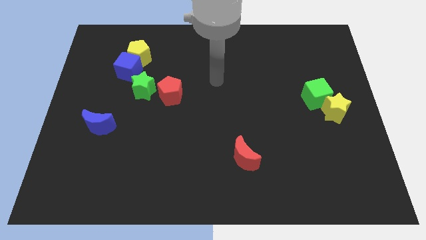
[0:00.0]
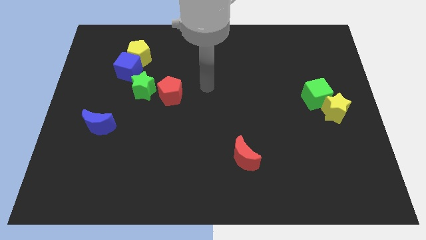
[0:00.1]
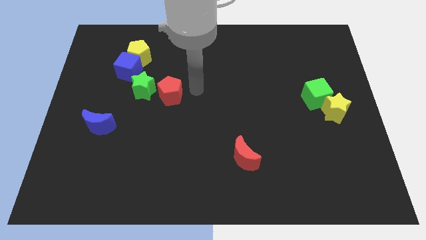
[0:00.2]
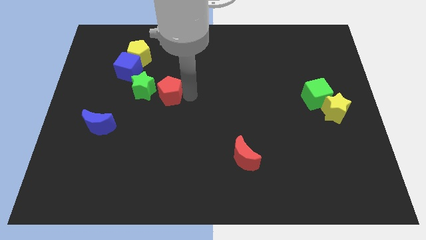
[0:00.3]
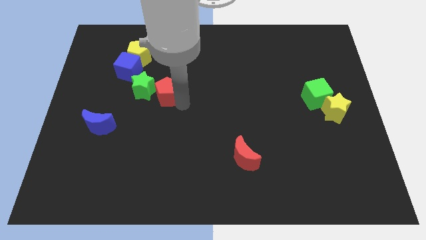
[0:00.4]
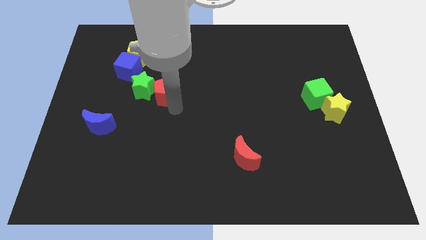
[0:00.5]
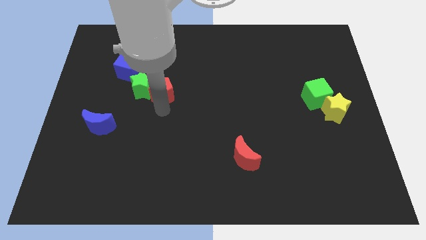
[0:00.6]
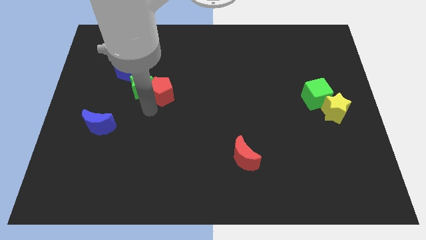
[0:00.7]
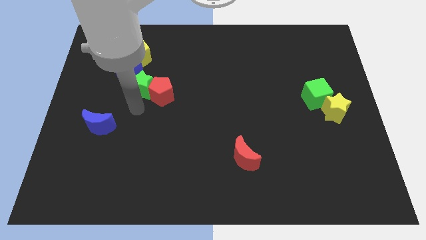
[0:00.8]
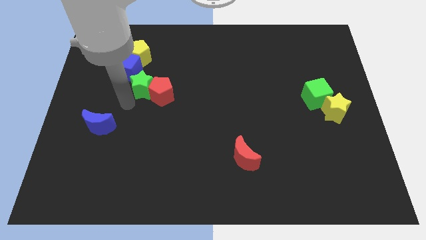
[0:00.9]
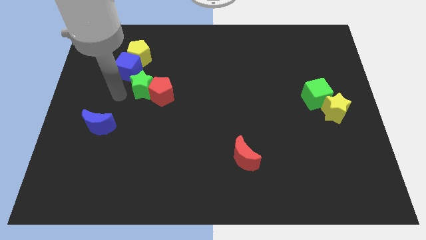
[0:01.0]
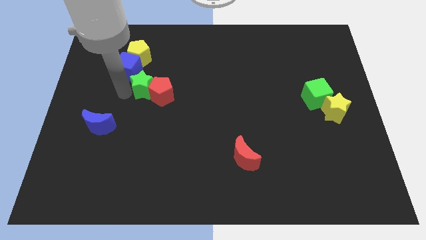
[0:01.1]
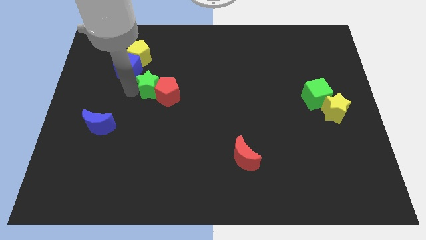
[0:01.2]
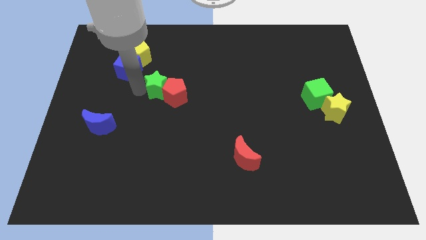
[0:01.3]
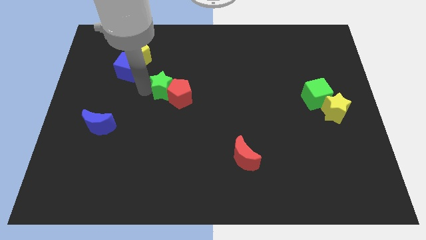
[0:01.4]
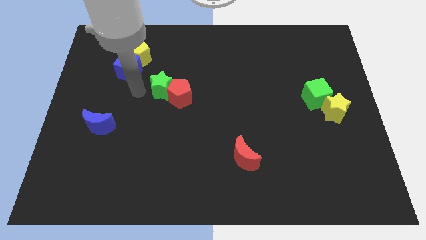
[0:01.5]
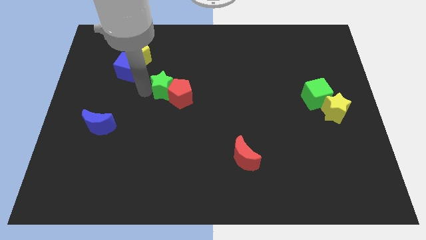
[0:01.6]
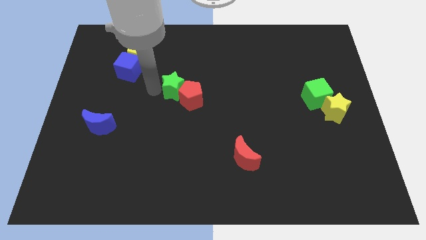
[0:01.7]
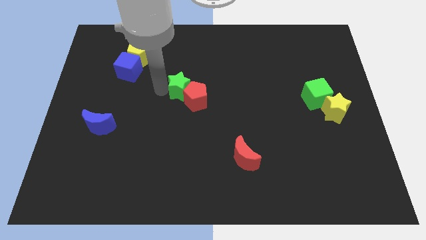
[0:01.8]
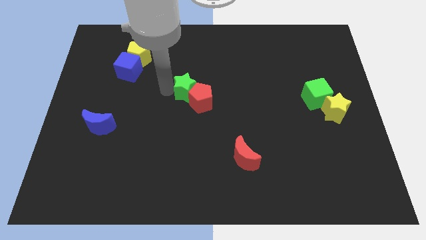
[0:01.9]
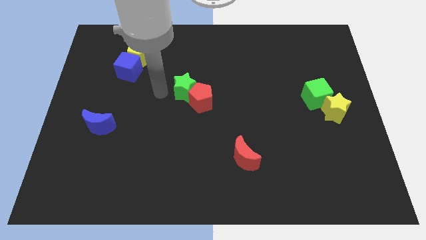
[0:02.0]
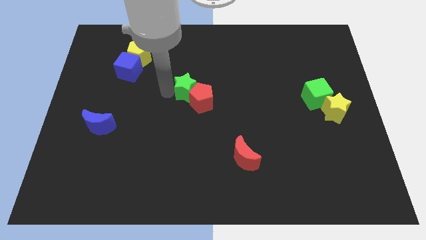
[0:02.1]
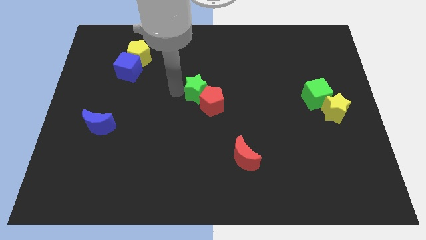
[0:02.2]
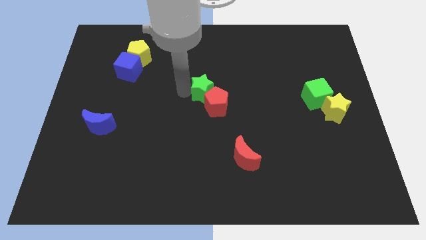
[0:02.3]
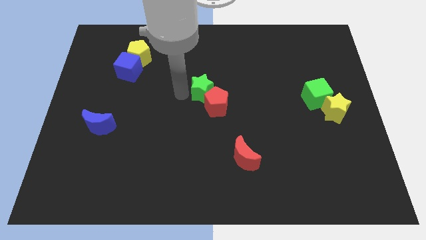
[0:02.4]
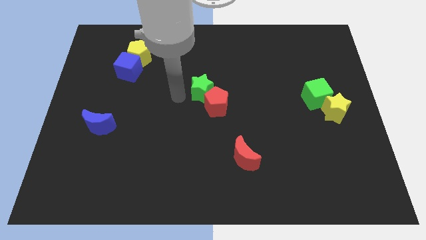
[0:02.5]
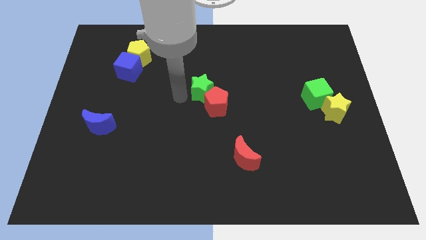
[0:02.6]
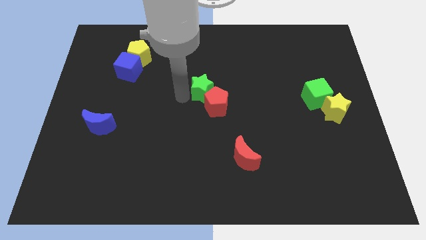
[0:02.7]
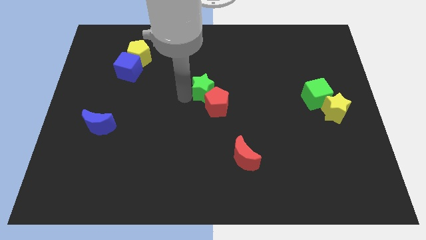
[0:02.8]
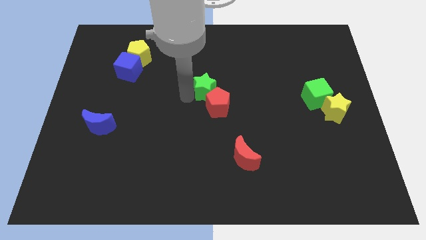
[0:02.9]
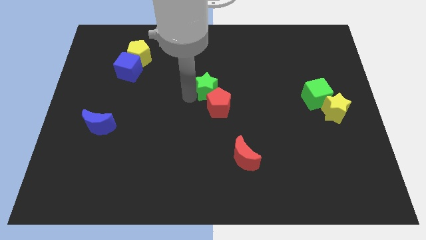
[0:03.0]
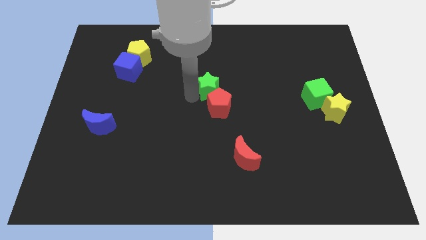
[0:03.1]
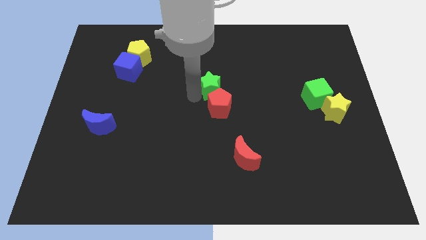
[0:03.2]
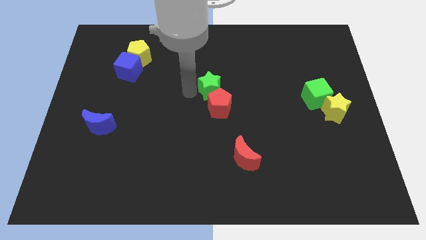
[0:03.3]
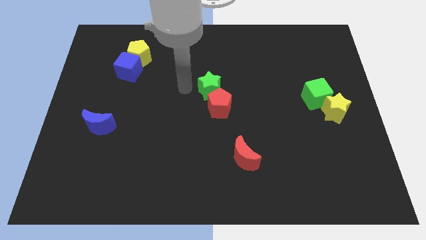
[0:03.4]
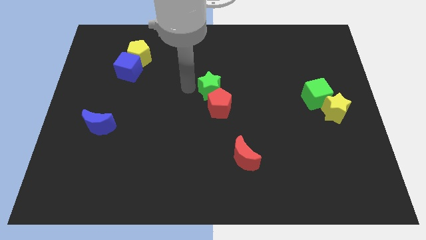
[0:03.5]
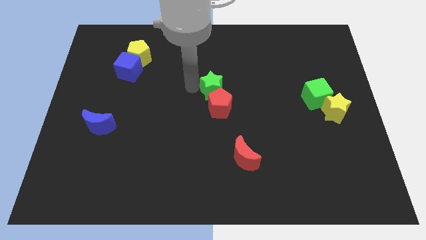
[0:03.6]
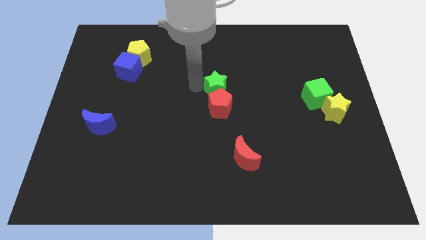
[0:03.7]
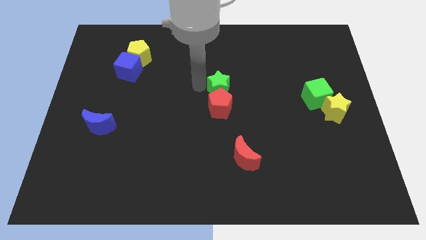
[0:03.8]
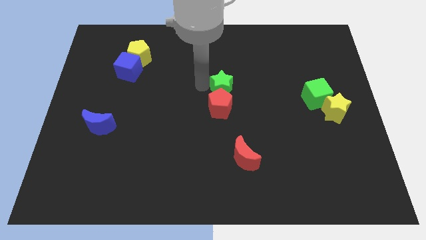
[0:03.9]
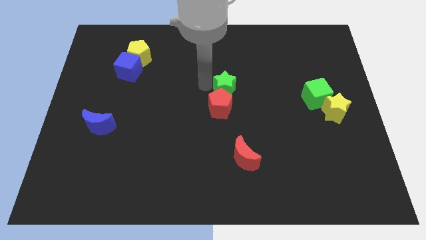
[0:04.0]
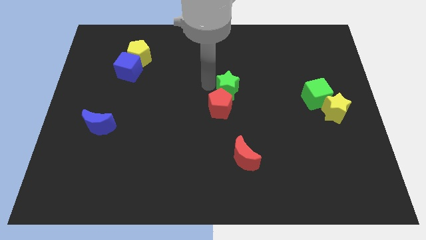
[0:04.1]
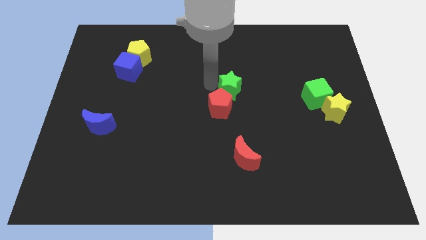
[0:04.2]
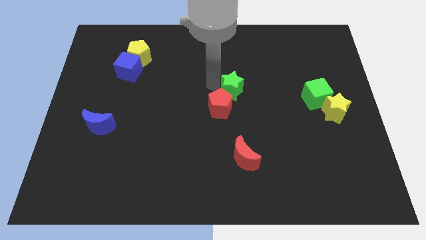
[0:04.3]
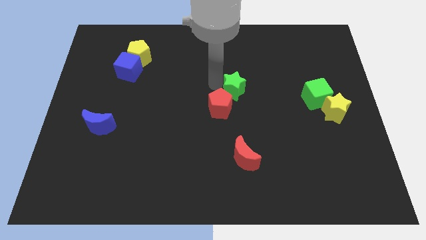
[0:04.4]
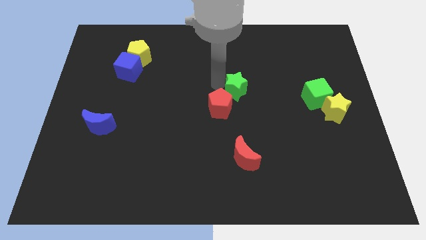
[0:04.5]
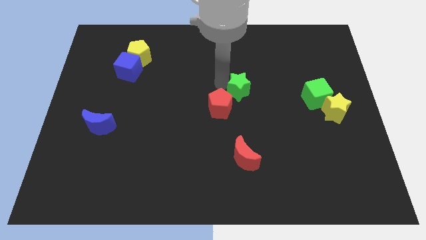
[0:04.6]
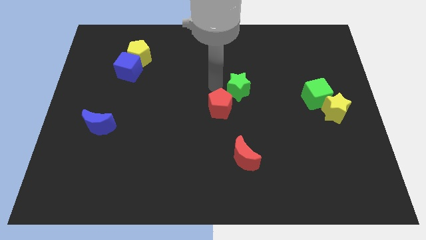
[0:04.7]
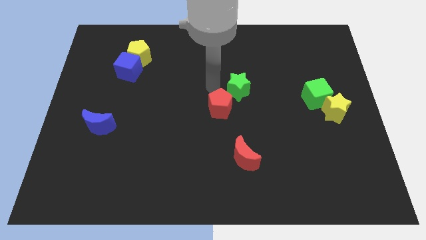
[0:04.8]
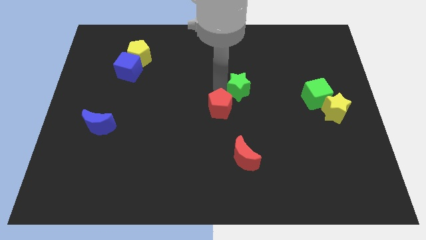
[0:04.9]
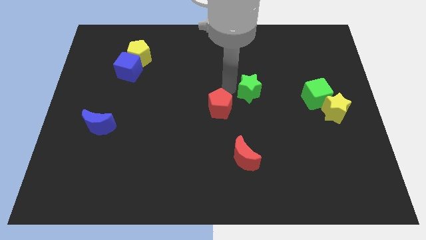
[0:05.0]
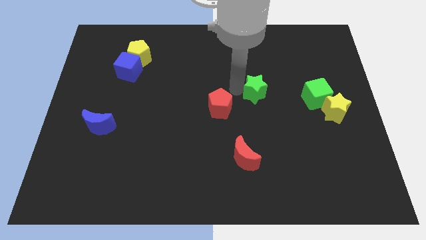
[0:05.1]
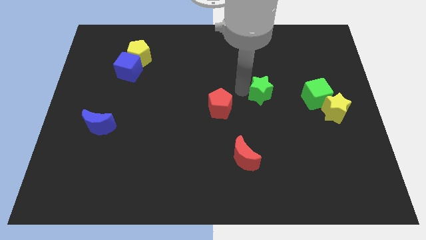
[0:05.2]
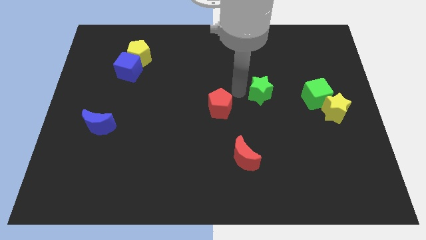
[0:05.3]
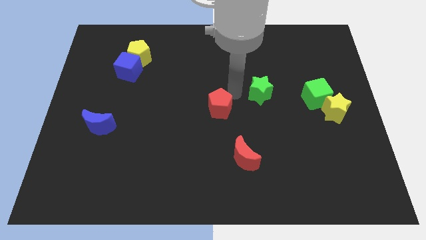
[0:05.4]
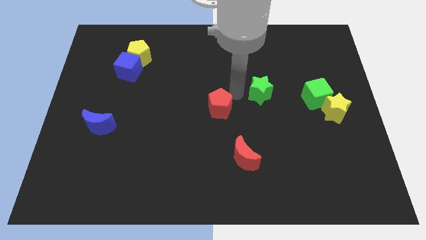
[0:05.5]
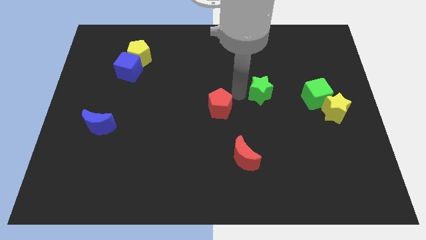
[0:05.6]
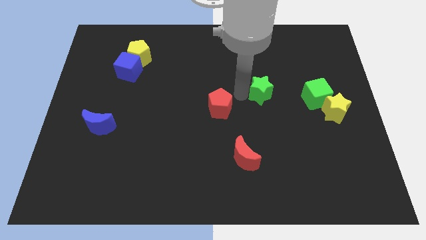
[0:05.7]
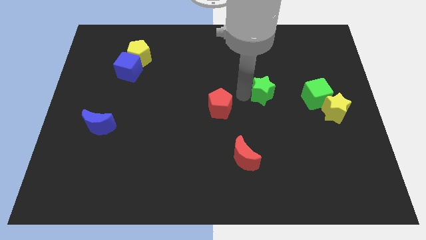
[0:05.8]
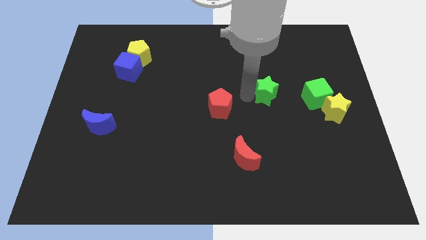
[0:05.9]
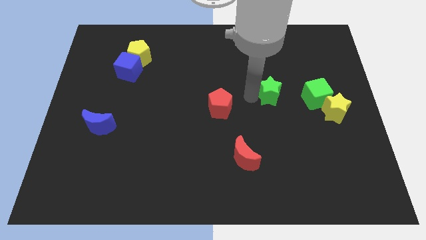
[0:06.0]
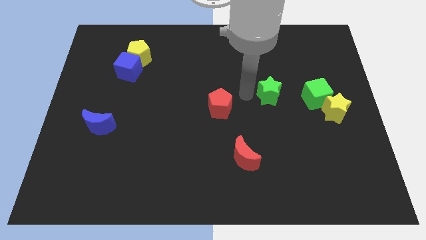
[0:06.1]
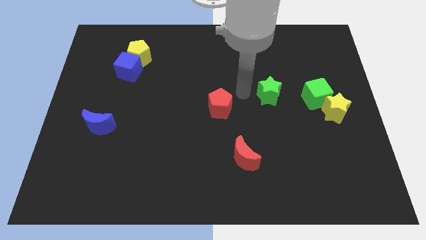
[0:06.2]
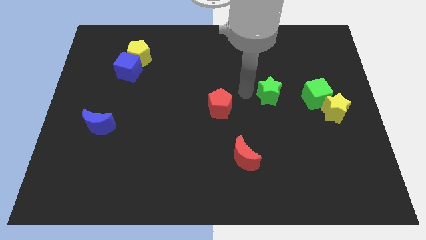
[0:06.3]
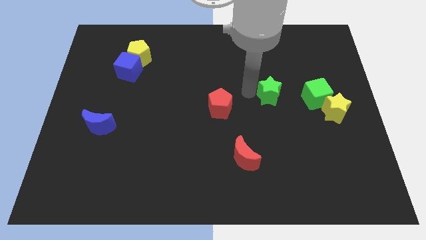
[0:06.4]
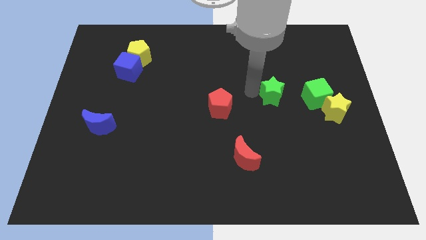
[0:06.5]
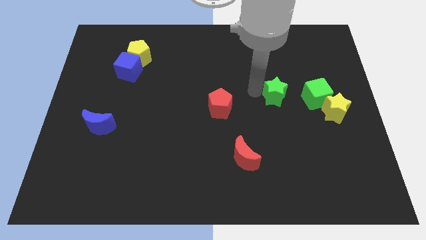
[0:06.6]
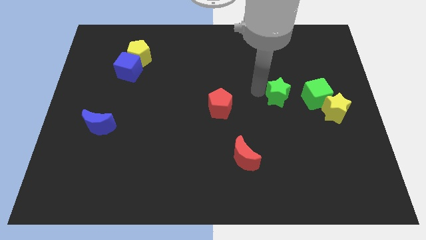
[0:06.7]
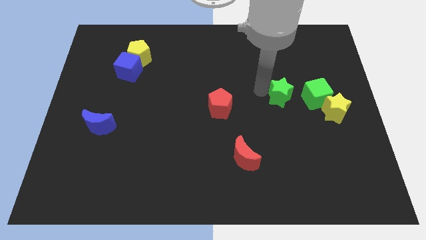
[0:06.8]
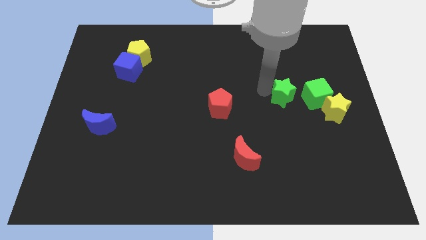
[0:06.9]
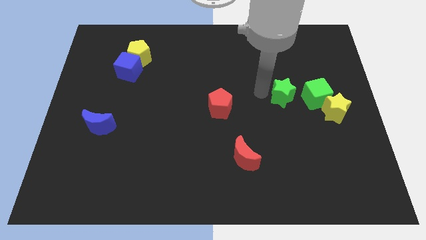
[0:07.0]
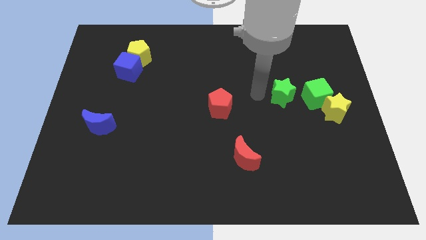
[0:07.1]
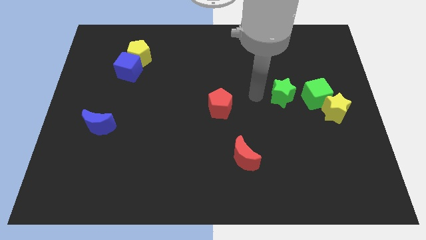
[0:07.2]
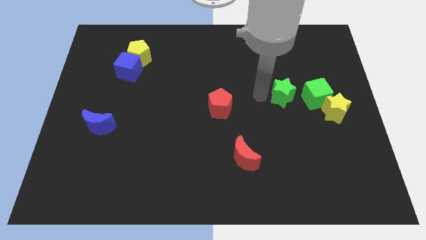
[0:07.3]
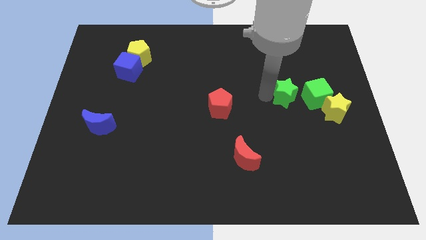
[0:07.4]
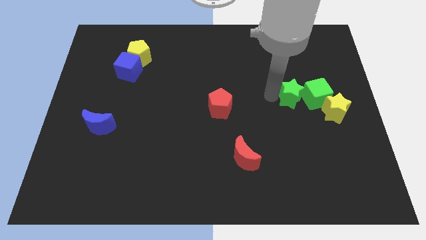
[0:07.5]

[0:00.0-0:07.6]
move the green star close to the green cube
